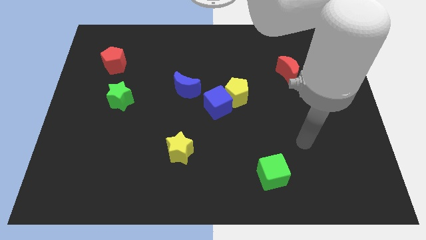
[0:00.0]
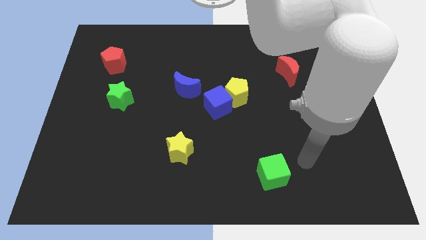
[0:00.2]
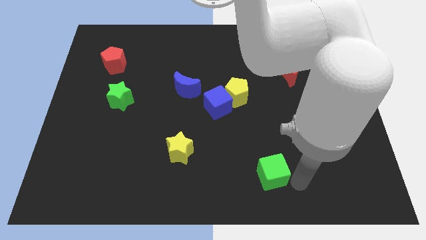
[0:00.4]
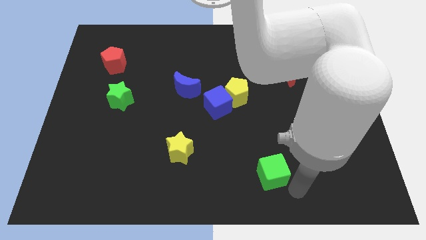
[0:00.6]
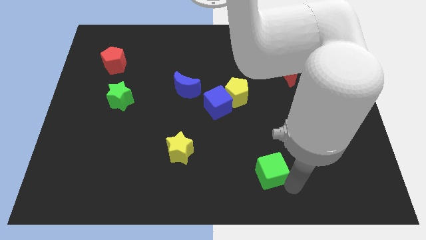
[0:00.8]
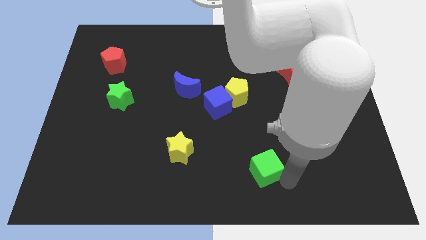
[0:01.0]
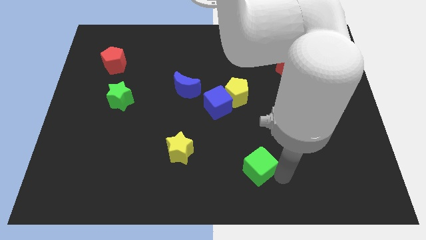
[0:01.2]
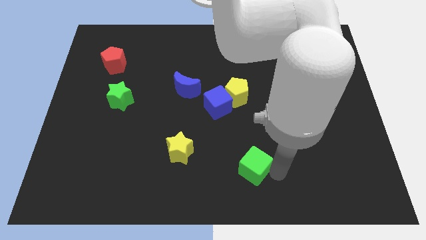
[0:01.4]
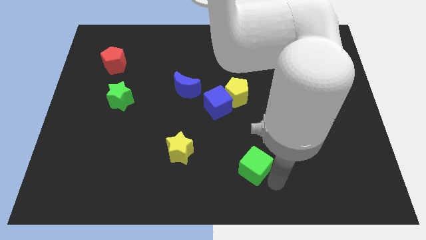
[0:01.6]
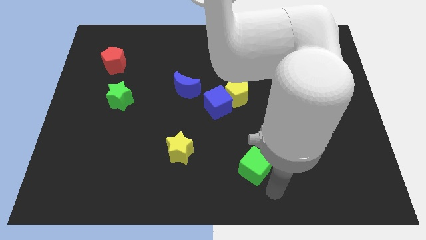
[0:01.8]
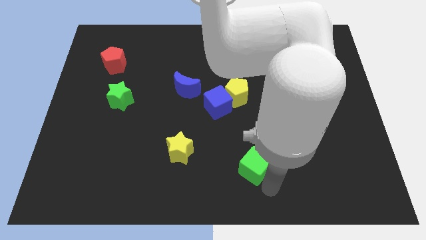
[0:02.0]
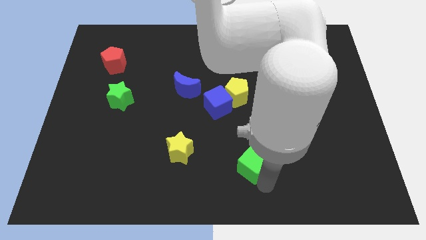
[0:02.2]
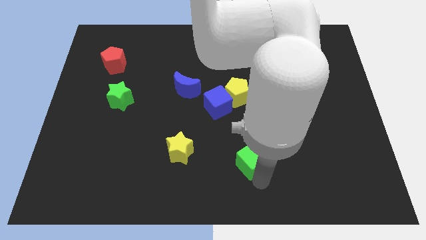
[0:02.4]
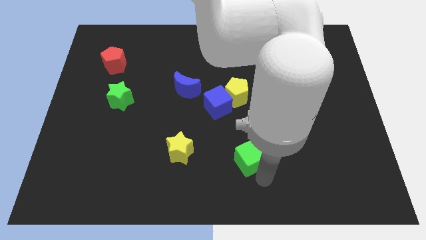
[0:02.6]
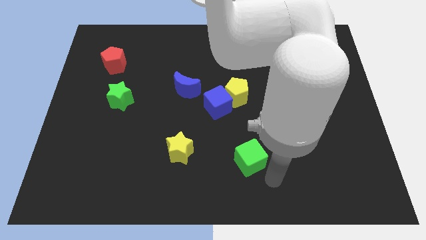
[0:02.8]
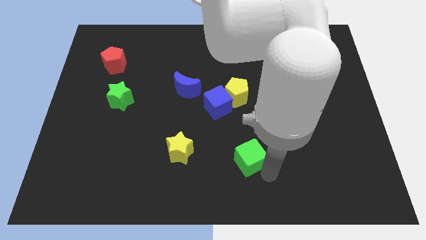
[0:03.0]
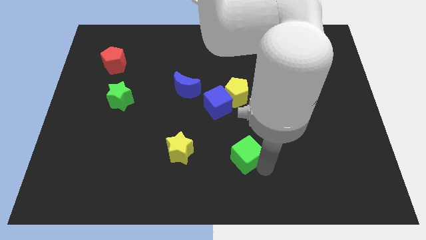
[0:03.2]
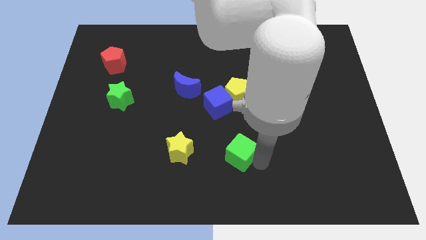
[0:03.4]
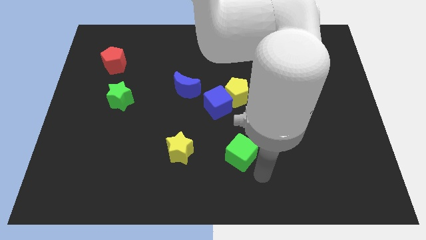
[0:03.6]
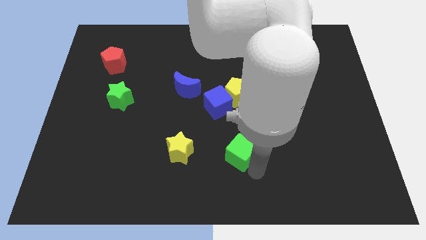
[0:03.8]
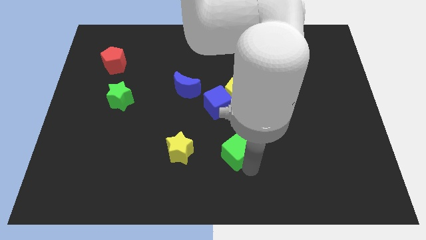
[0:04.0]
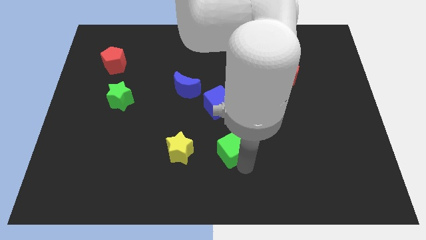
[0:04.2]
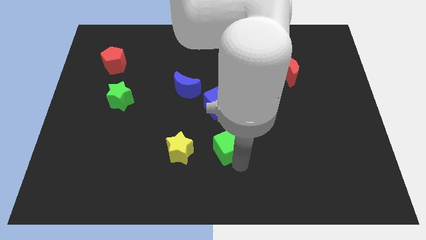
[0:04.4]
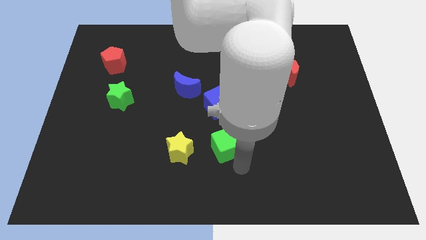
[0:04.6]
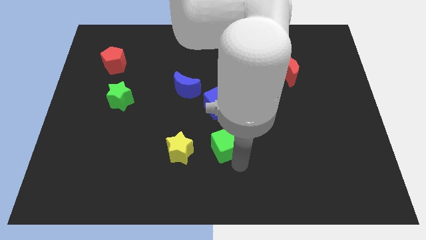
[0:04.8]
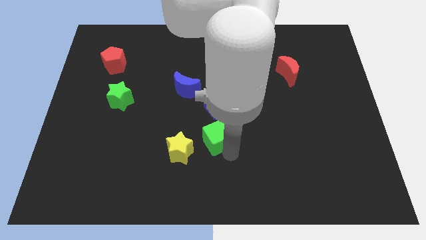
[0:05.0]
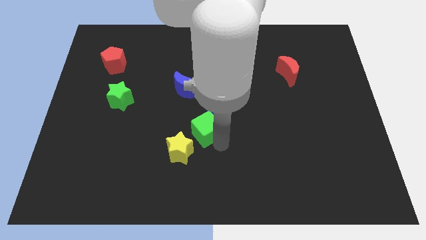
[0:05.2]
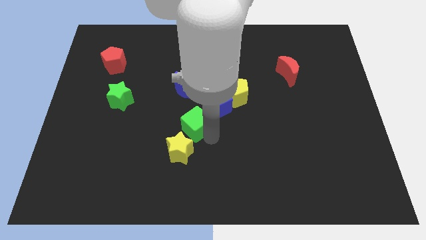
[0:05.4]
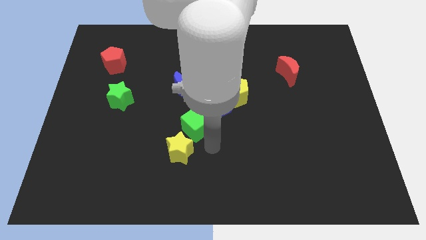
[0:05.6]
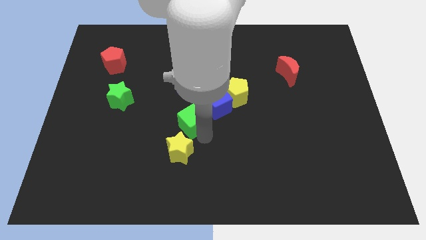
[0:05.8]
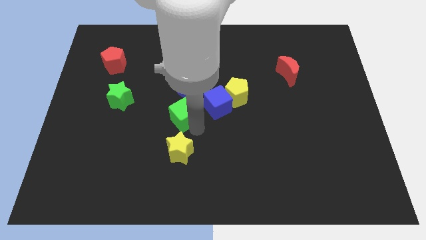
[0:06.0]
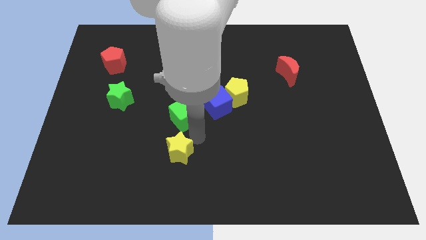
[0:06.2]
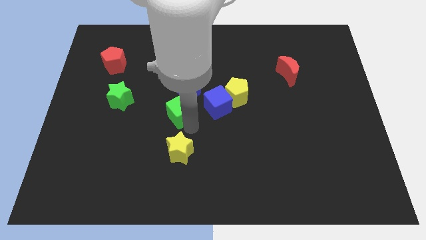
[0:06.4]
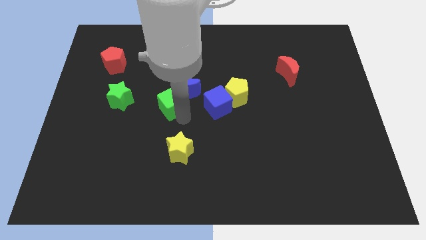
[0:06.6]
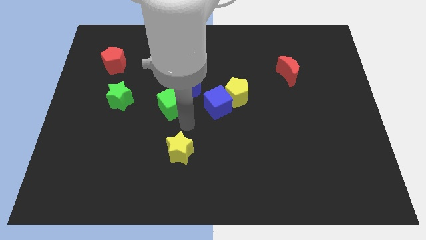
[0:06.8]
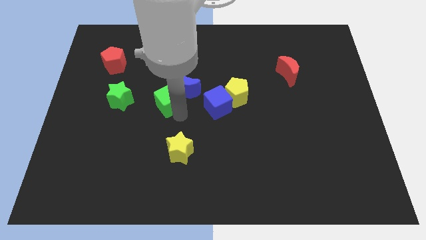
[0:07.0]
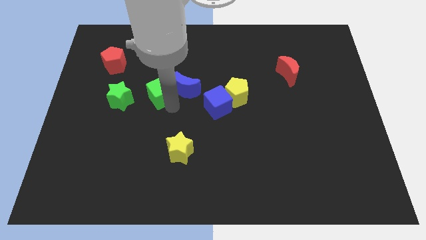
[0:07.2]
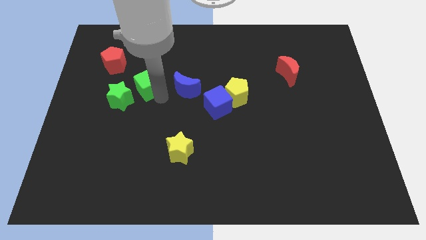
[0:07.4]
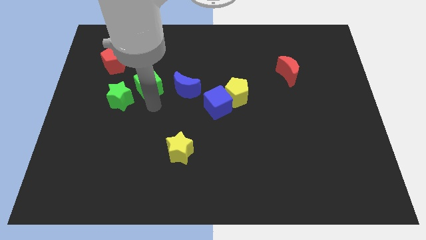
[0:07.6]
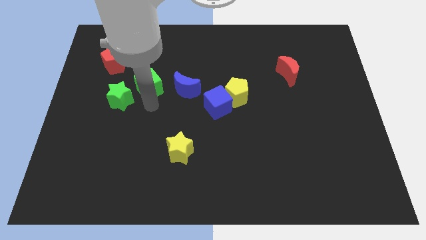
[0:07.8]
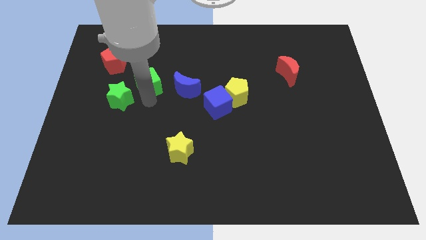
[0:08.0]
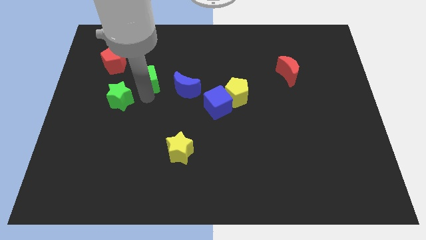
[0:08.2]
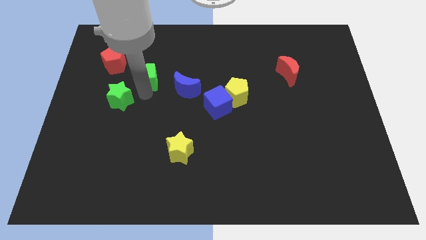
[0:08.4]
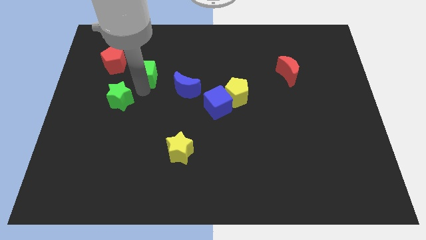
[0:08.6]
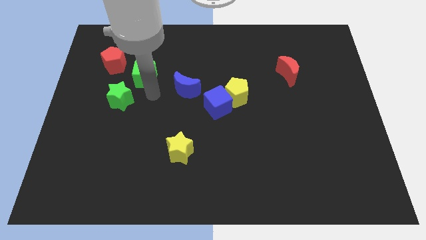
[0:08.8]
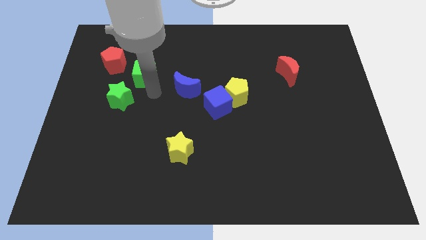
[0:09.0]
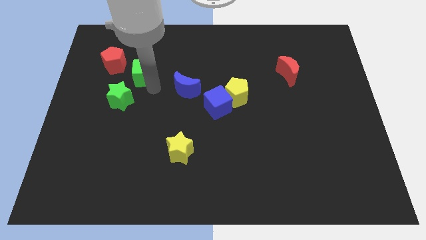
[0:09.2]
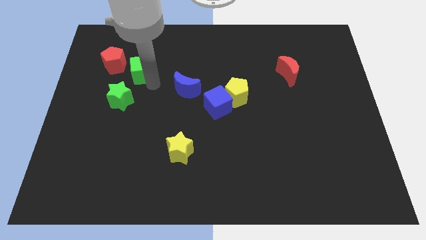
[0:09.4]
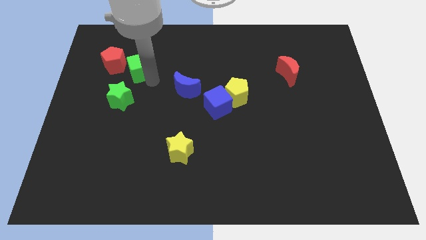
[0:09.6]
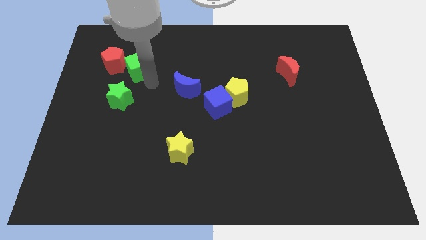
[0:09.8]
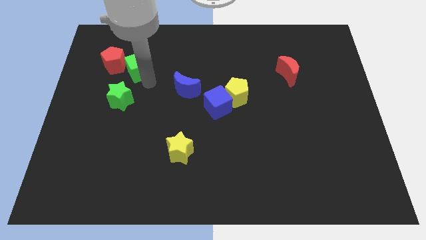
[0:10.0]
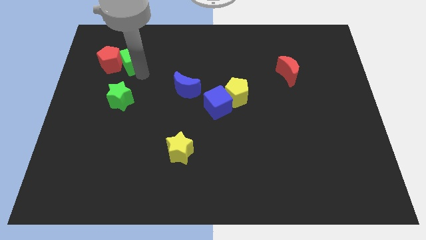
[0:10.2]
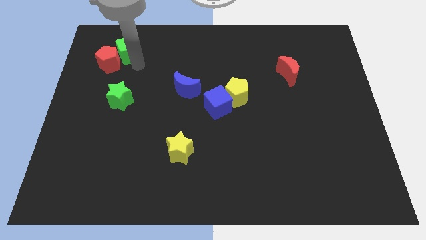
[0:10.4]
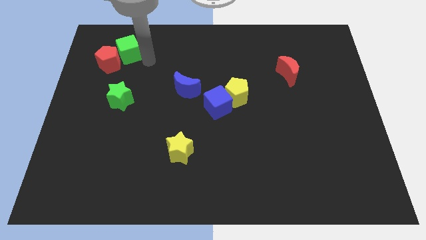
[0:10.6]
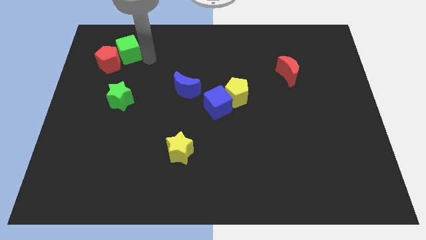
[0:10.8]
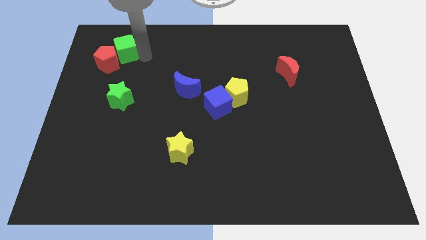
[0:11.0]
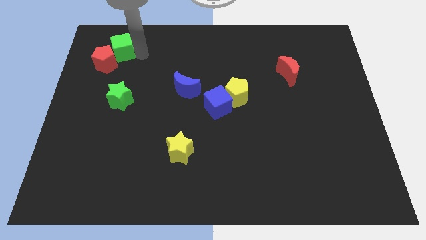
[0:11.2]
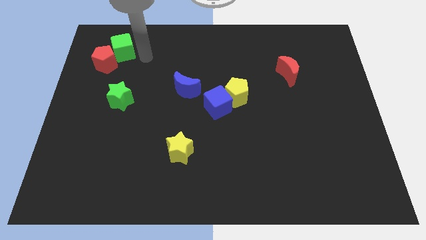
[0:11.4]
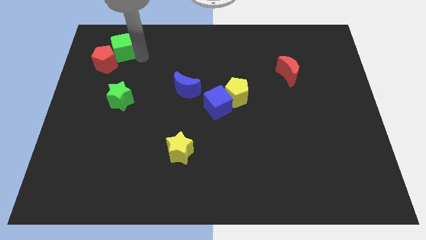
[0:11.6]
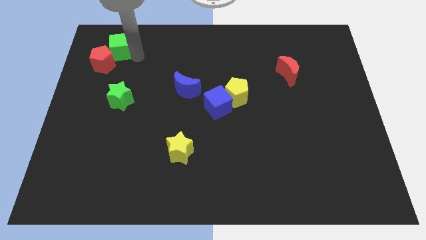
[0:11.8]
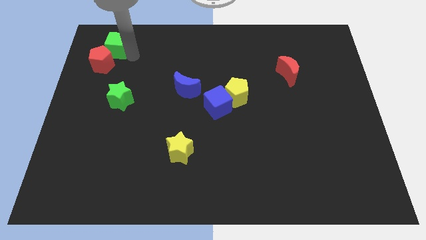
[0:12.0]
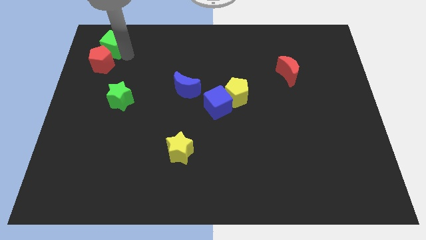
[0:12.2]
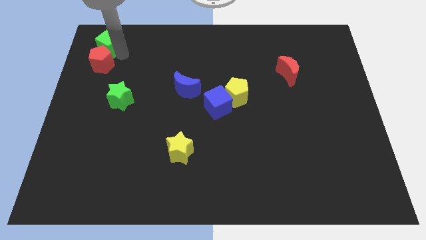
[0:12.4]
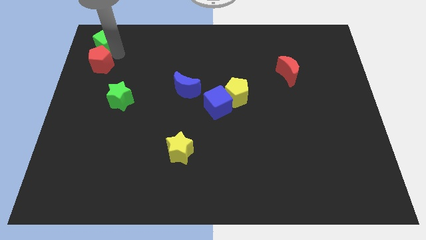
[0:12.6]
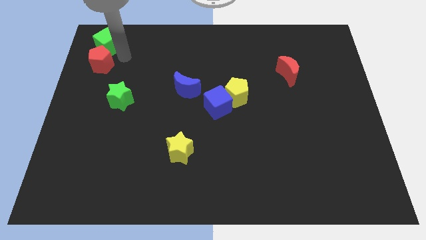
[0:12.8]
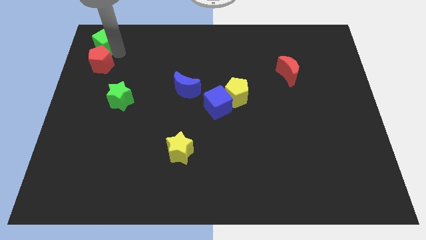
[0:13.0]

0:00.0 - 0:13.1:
put the green cube to the top left
